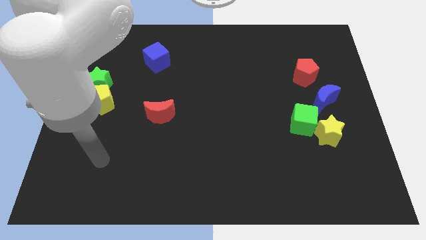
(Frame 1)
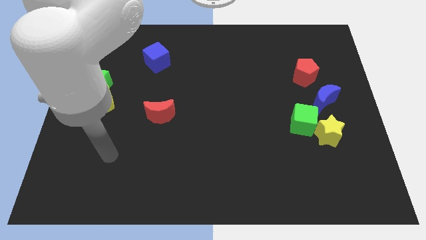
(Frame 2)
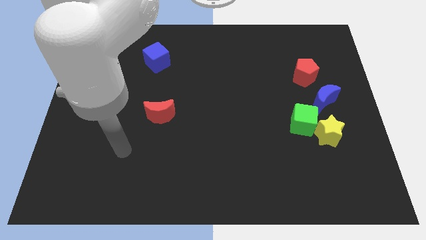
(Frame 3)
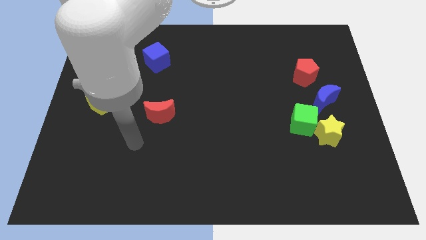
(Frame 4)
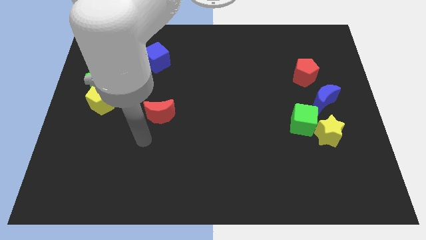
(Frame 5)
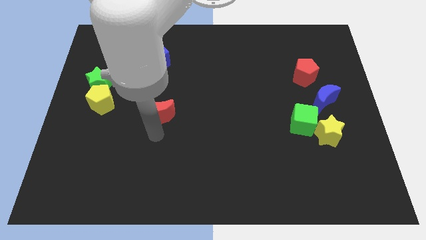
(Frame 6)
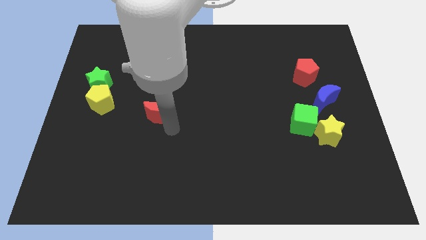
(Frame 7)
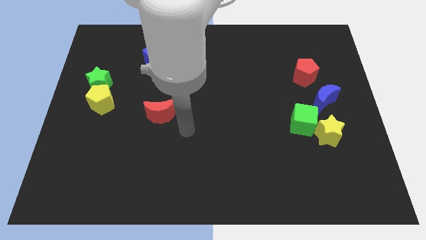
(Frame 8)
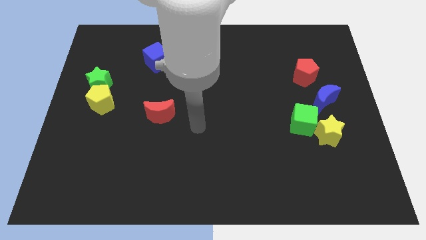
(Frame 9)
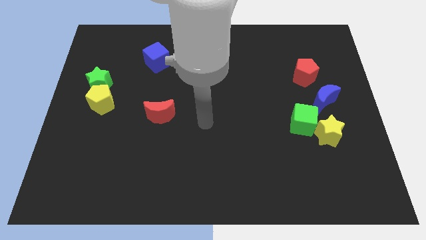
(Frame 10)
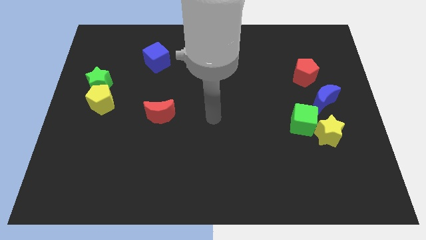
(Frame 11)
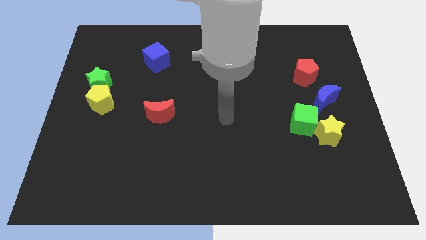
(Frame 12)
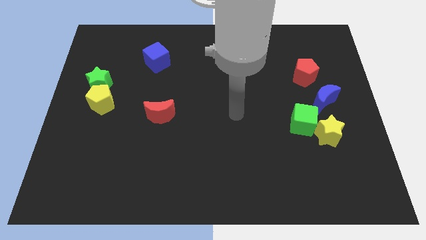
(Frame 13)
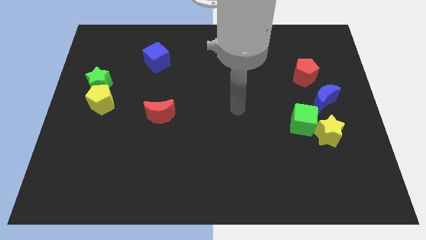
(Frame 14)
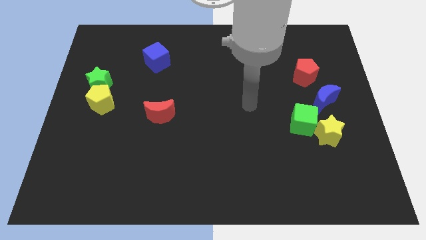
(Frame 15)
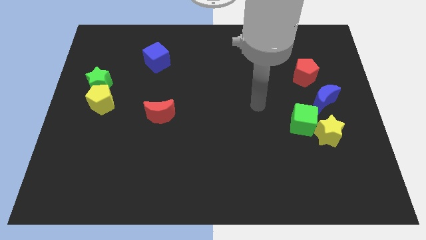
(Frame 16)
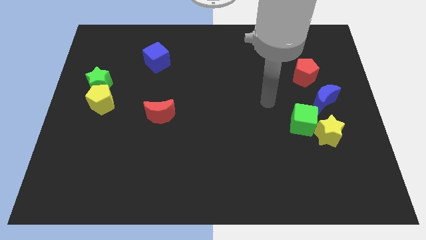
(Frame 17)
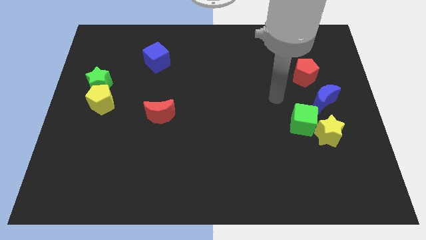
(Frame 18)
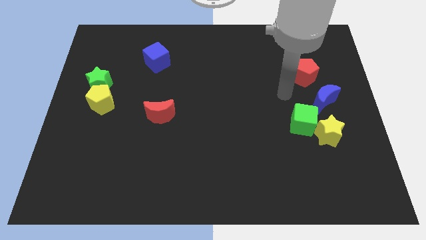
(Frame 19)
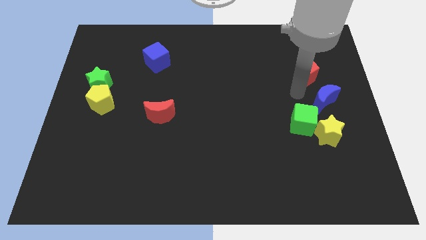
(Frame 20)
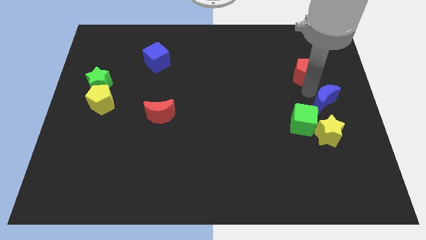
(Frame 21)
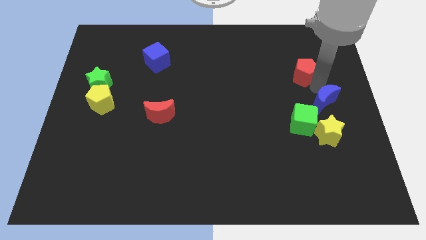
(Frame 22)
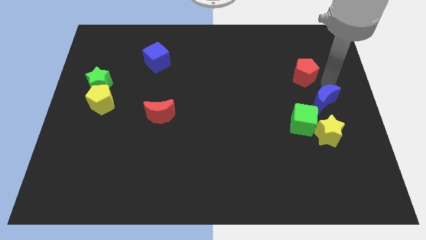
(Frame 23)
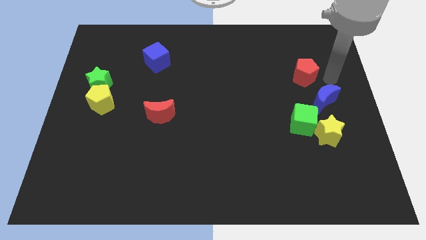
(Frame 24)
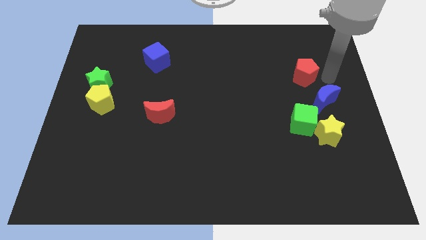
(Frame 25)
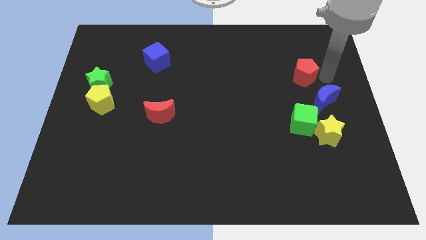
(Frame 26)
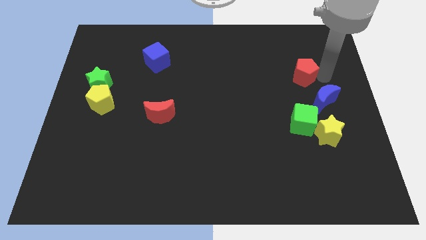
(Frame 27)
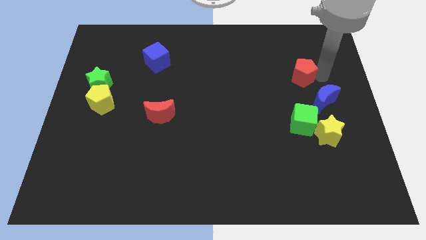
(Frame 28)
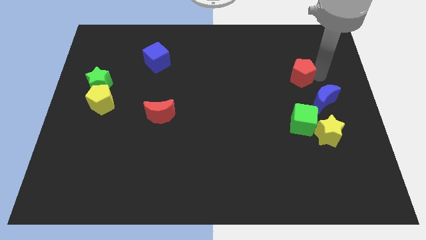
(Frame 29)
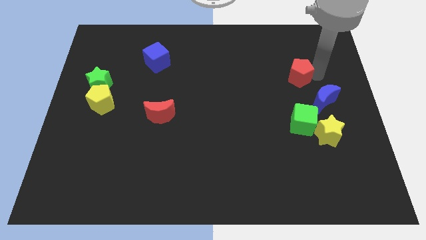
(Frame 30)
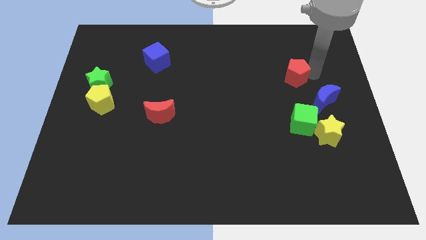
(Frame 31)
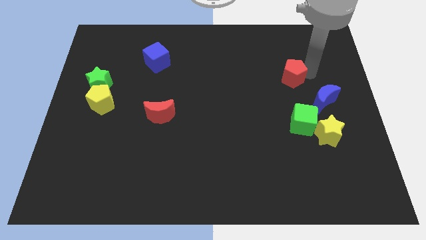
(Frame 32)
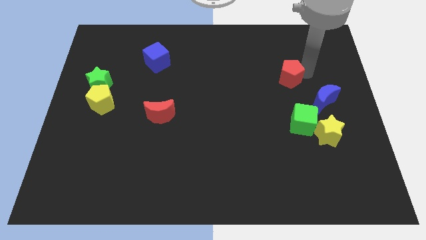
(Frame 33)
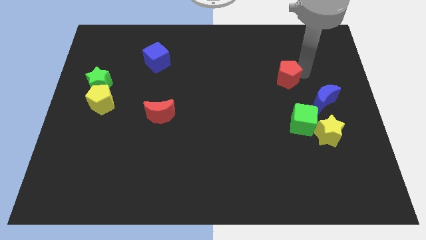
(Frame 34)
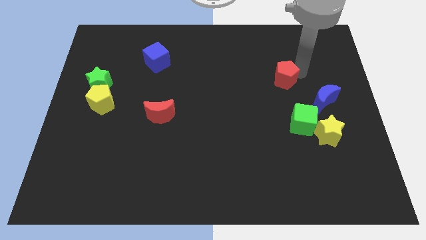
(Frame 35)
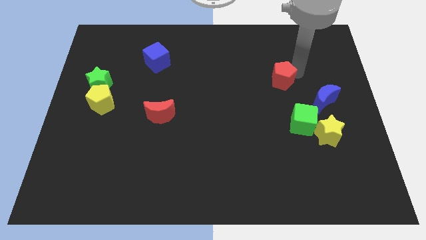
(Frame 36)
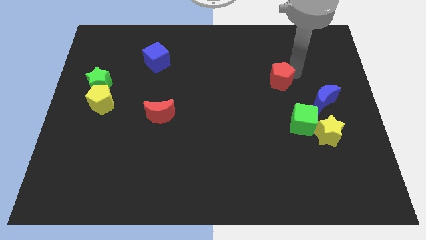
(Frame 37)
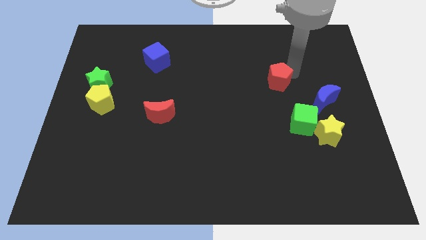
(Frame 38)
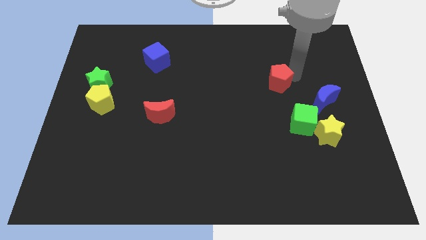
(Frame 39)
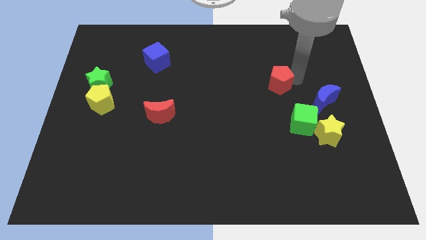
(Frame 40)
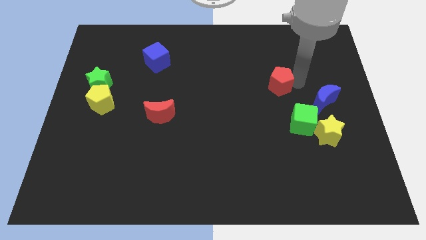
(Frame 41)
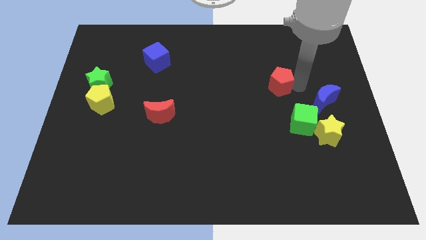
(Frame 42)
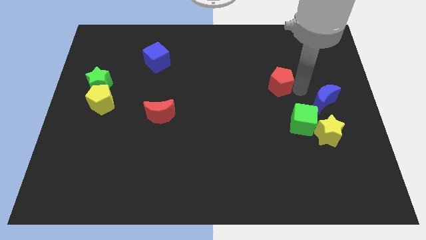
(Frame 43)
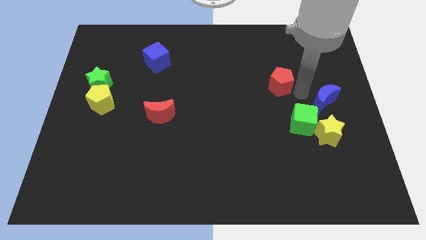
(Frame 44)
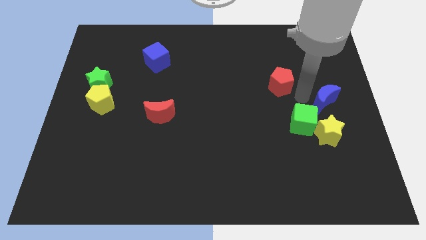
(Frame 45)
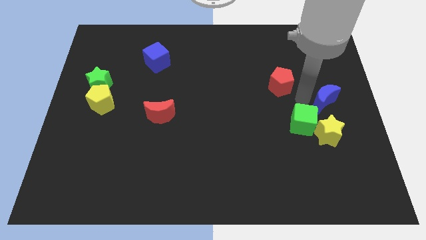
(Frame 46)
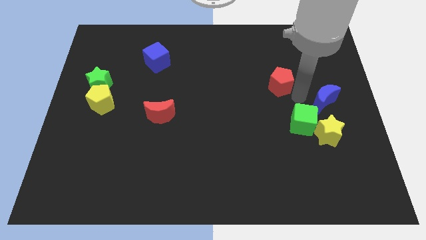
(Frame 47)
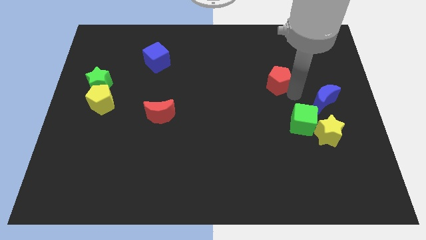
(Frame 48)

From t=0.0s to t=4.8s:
slide the red pentagon to the left a little bit

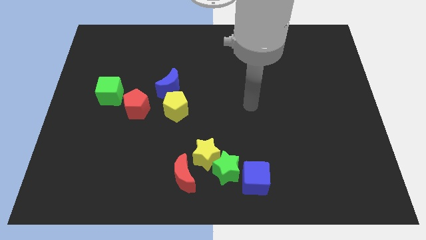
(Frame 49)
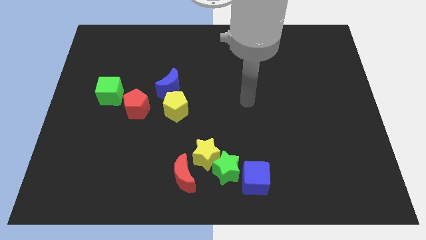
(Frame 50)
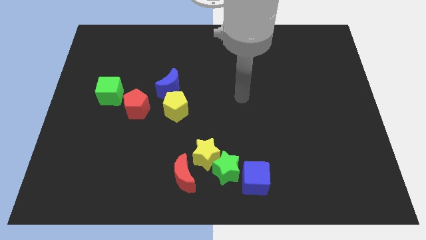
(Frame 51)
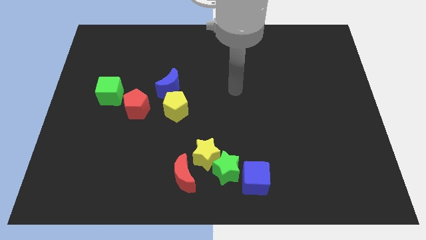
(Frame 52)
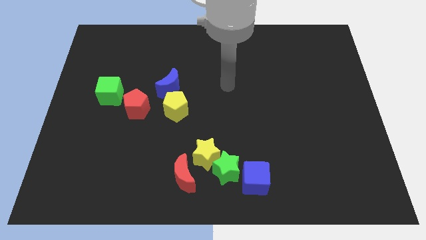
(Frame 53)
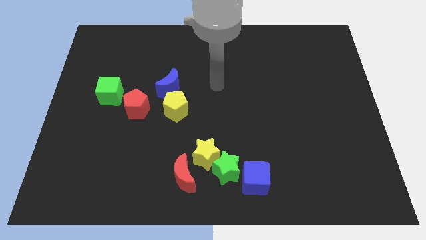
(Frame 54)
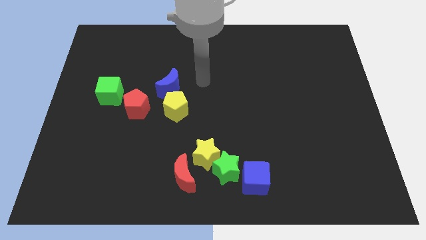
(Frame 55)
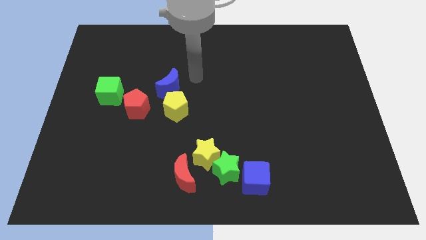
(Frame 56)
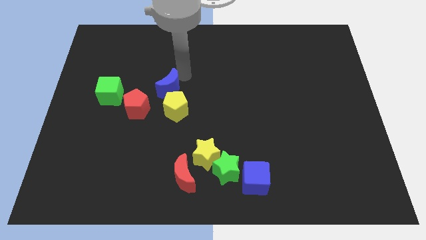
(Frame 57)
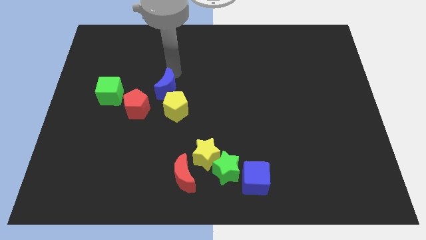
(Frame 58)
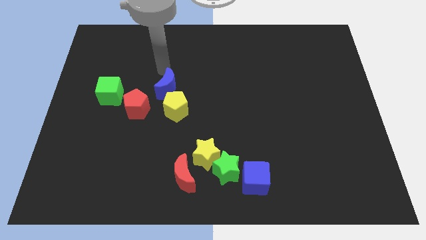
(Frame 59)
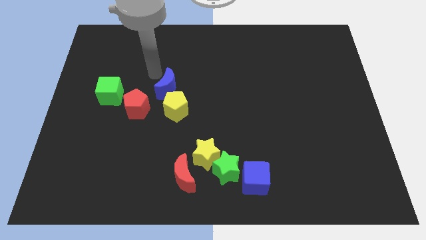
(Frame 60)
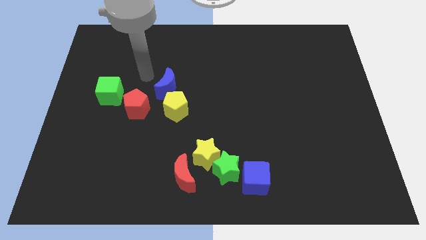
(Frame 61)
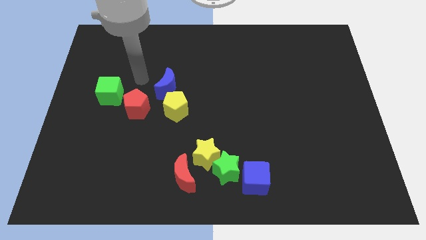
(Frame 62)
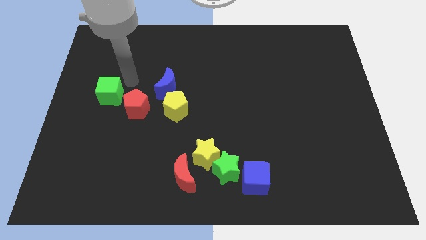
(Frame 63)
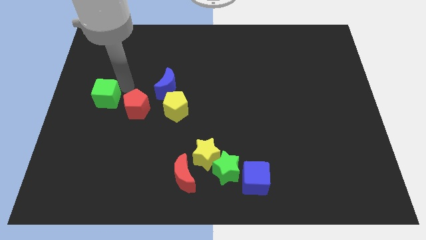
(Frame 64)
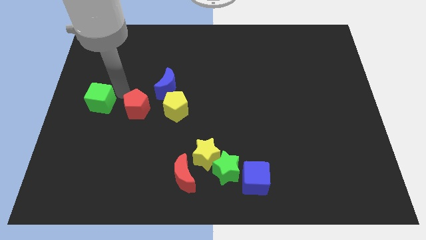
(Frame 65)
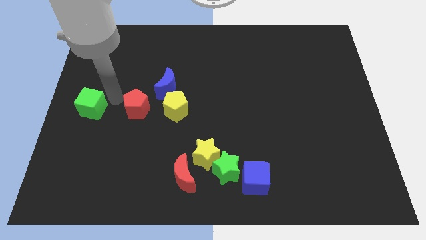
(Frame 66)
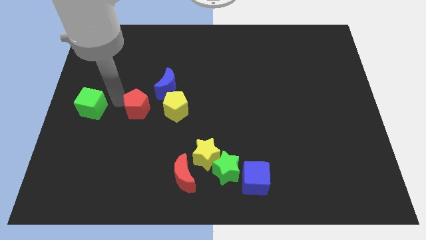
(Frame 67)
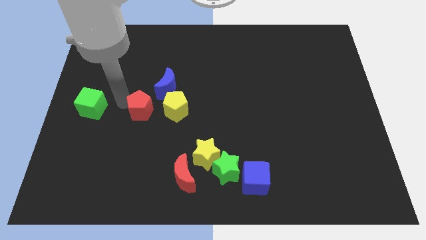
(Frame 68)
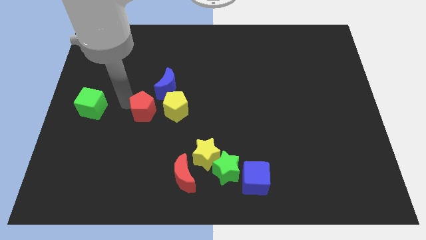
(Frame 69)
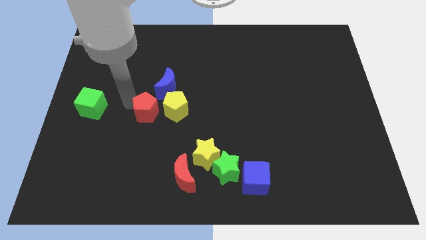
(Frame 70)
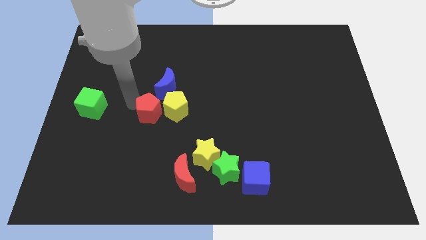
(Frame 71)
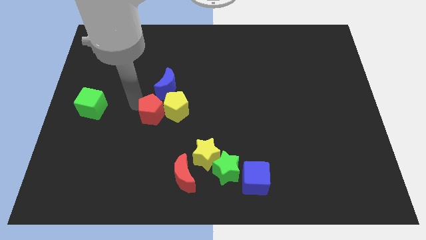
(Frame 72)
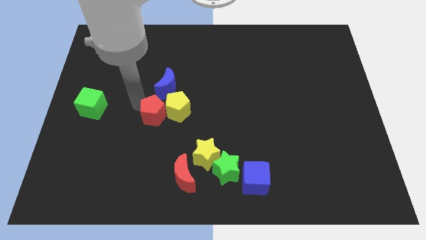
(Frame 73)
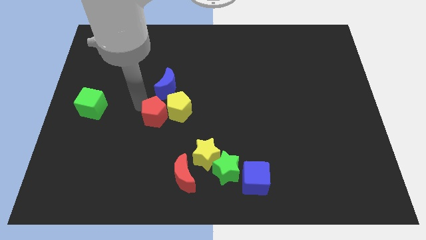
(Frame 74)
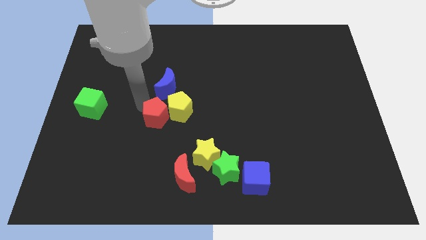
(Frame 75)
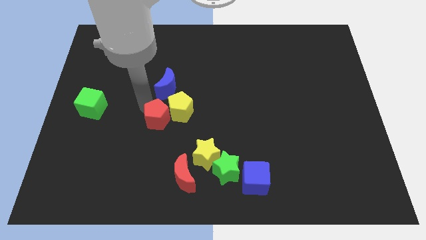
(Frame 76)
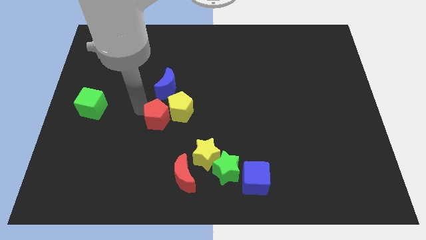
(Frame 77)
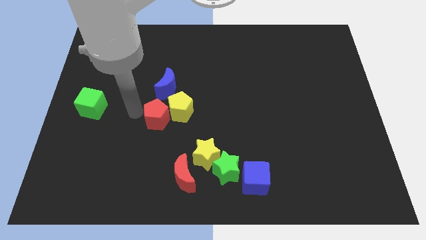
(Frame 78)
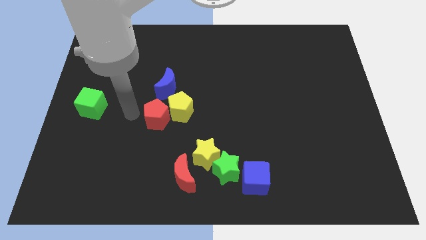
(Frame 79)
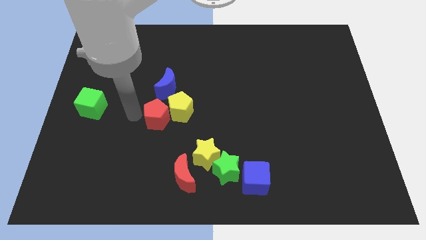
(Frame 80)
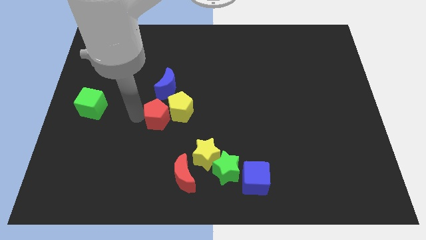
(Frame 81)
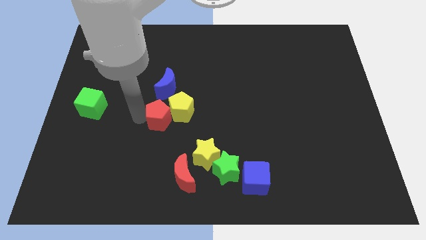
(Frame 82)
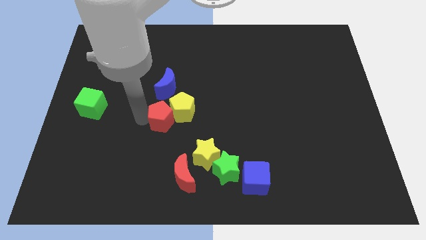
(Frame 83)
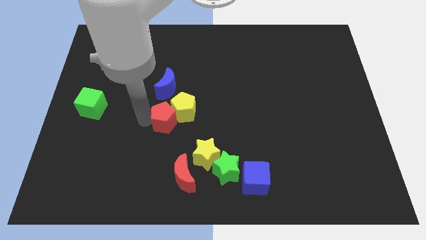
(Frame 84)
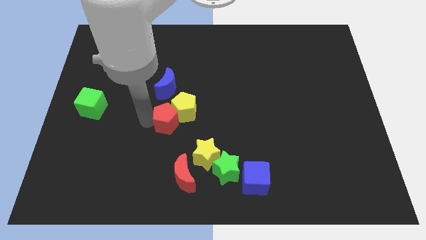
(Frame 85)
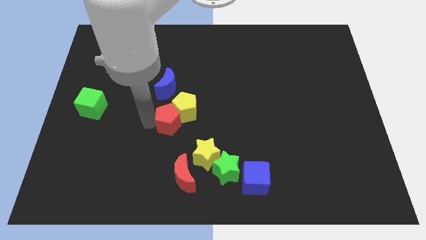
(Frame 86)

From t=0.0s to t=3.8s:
slightly move the red pentagon right
